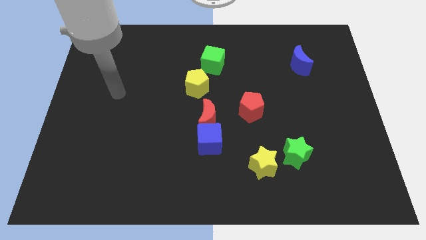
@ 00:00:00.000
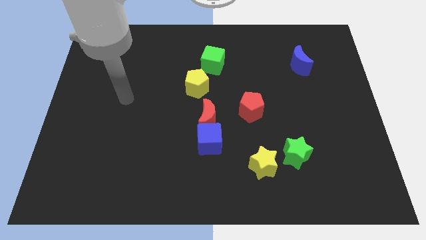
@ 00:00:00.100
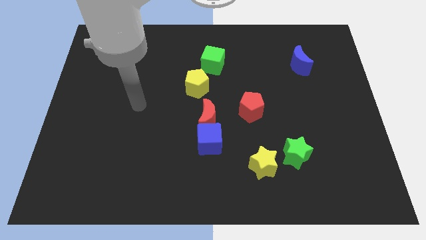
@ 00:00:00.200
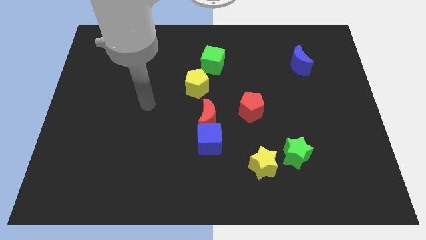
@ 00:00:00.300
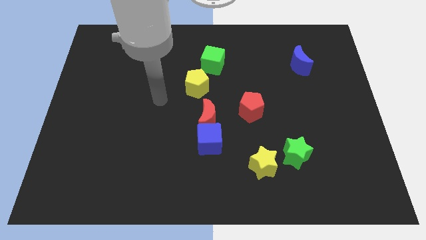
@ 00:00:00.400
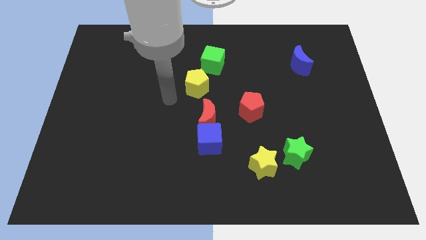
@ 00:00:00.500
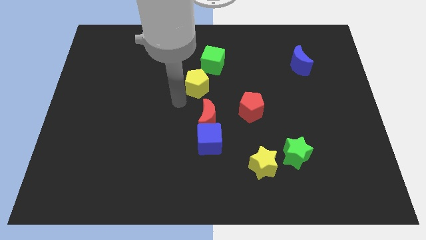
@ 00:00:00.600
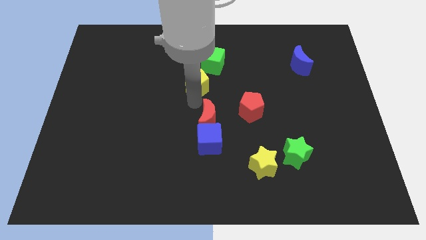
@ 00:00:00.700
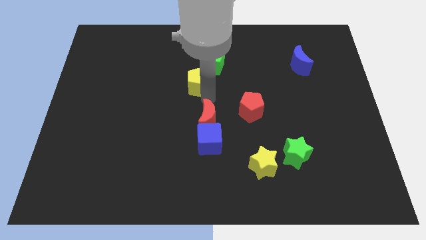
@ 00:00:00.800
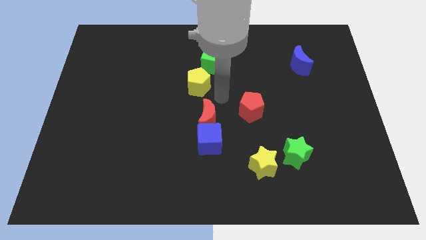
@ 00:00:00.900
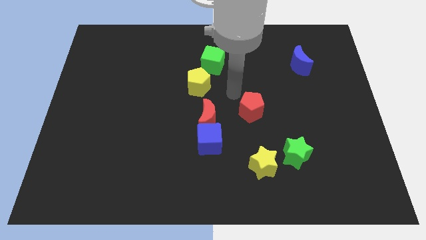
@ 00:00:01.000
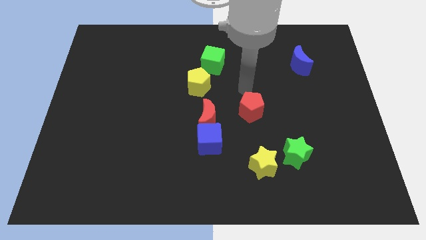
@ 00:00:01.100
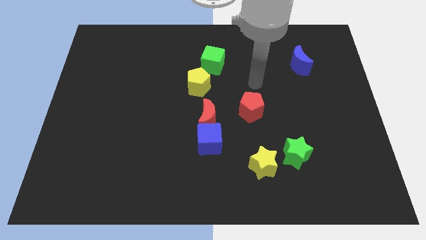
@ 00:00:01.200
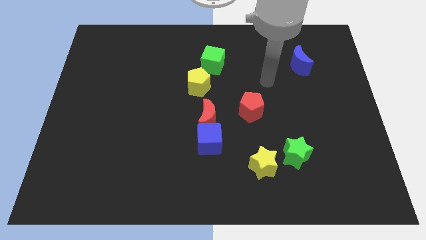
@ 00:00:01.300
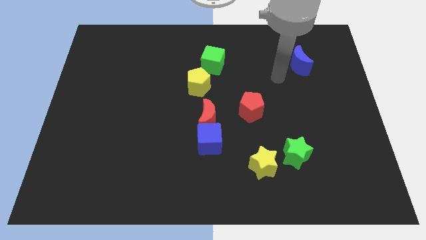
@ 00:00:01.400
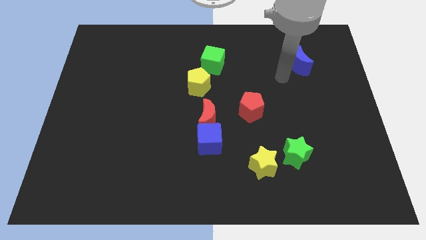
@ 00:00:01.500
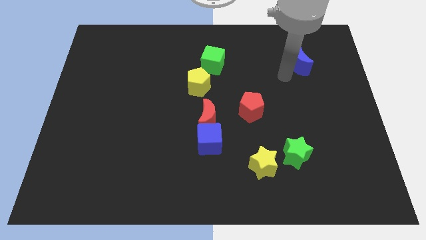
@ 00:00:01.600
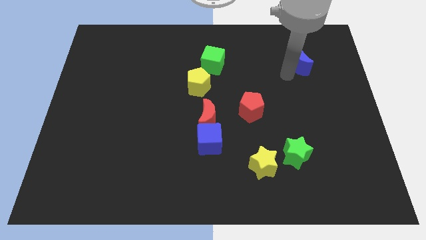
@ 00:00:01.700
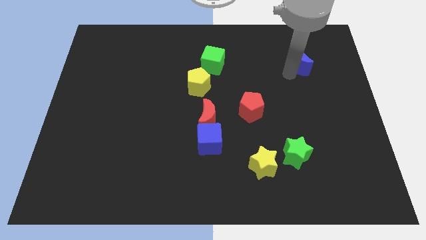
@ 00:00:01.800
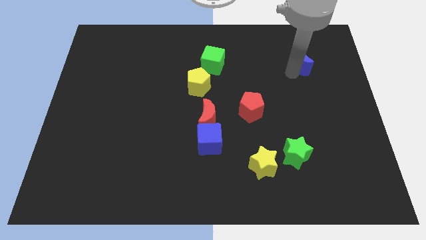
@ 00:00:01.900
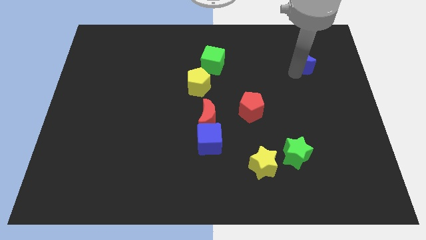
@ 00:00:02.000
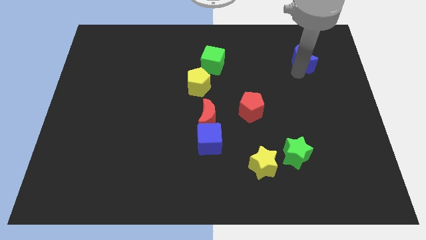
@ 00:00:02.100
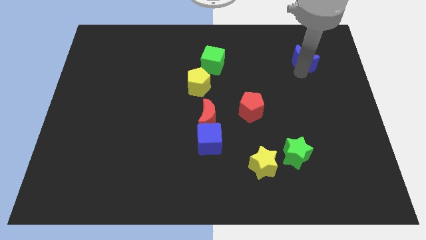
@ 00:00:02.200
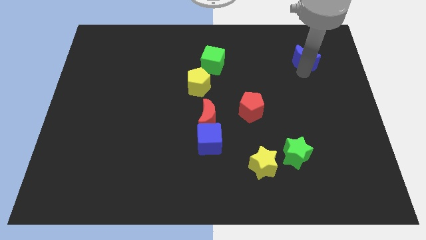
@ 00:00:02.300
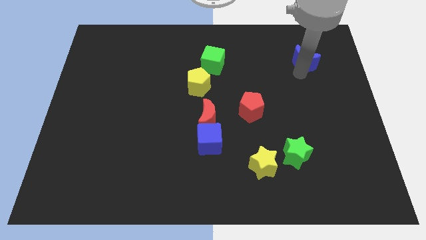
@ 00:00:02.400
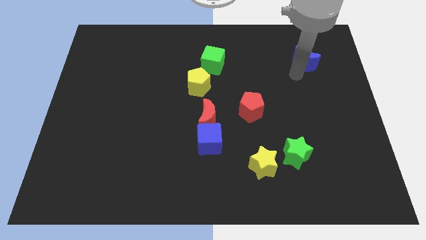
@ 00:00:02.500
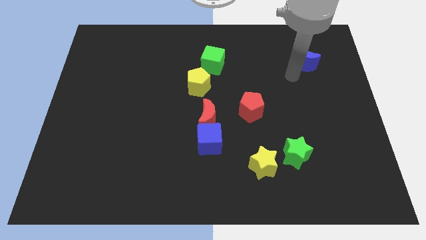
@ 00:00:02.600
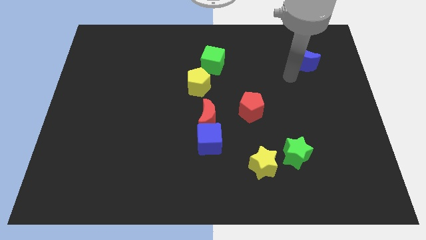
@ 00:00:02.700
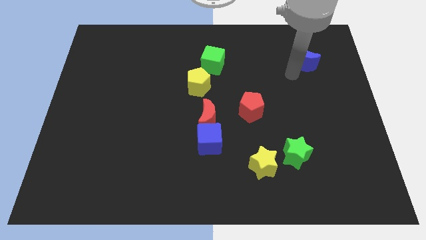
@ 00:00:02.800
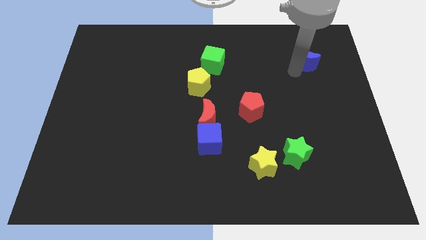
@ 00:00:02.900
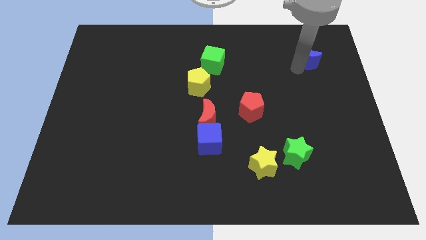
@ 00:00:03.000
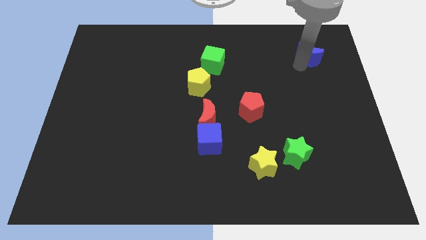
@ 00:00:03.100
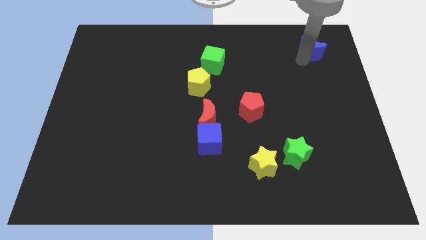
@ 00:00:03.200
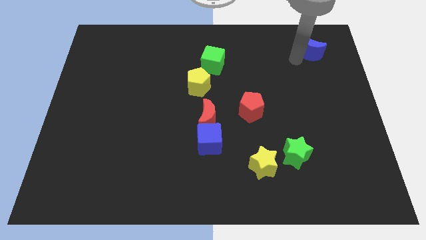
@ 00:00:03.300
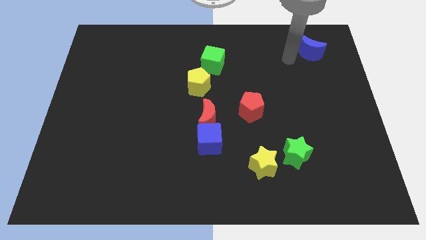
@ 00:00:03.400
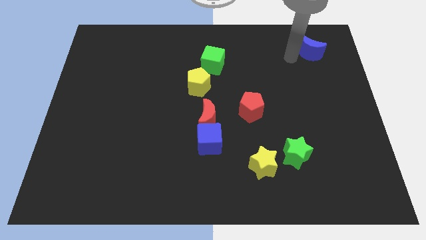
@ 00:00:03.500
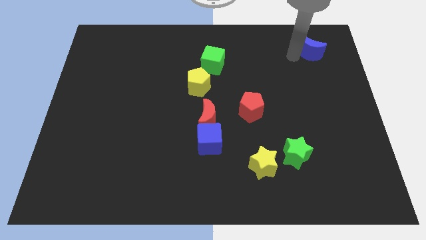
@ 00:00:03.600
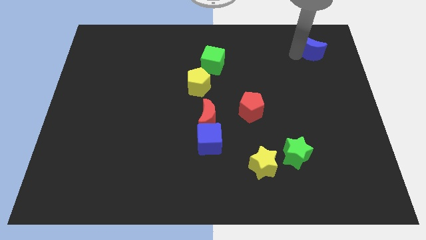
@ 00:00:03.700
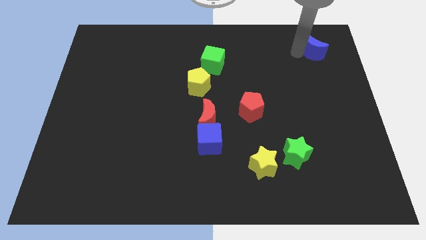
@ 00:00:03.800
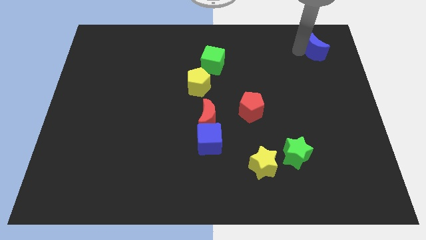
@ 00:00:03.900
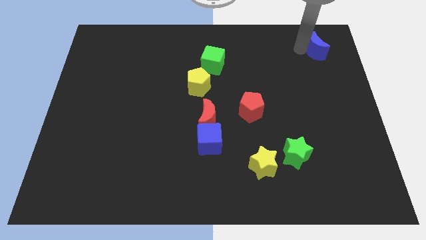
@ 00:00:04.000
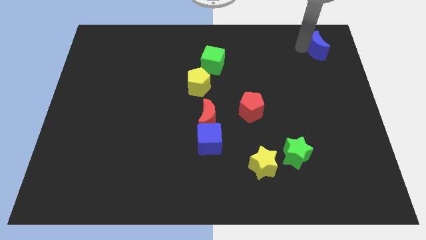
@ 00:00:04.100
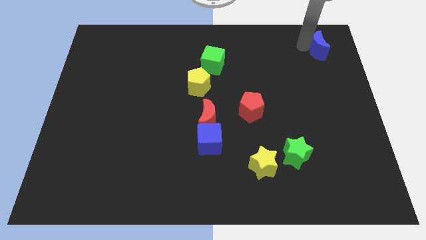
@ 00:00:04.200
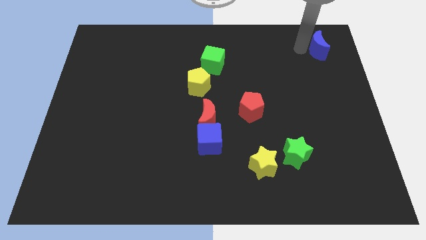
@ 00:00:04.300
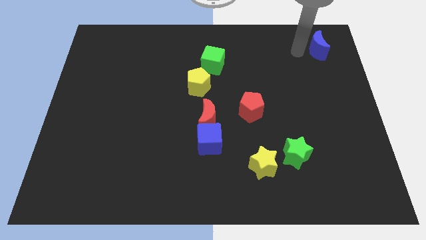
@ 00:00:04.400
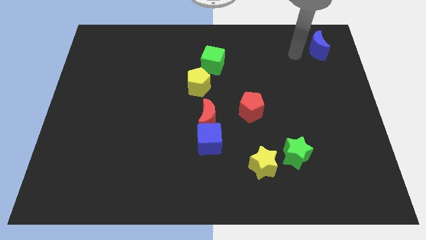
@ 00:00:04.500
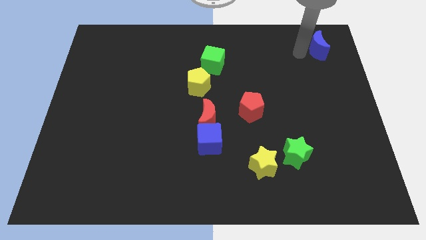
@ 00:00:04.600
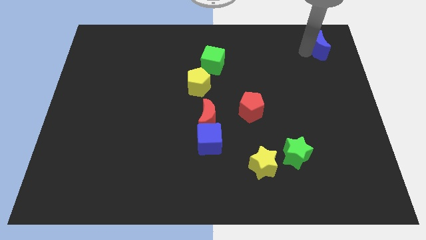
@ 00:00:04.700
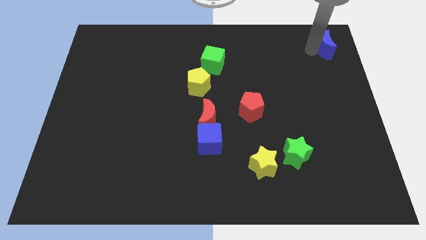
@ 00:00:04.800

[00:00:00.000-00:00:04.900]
move the blue moon to the top right
